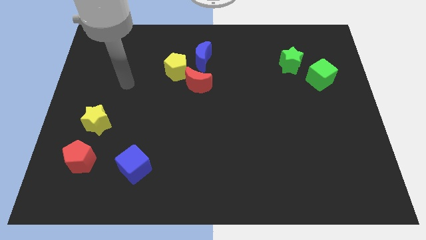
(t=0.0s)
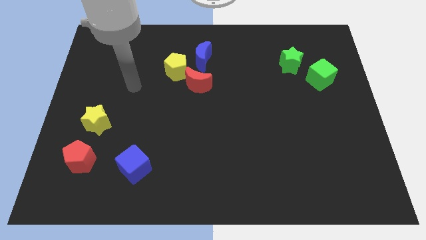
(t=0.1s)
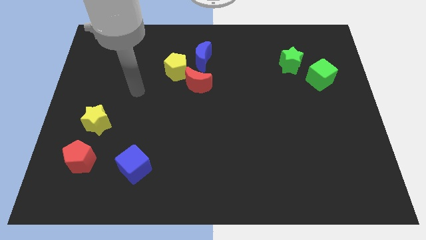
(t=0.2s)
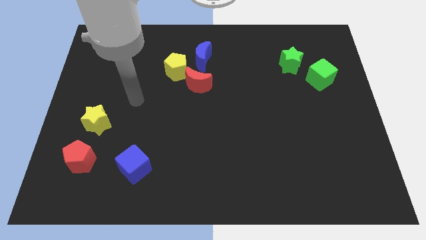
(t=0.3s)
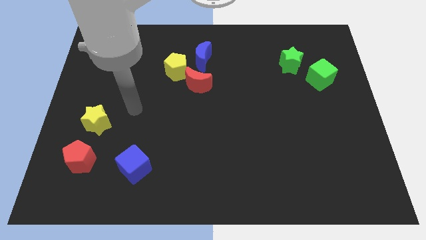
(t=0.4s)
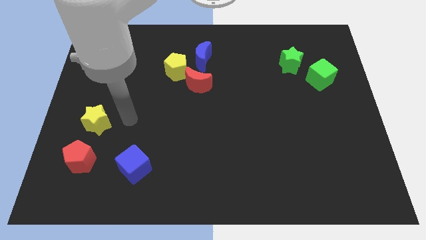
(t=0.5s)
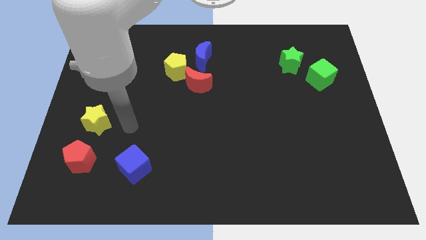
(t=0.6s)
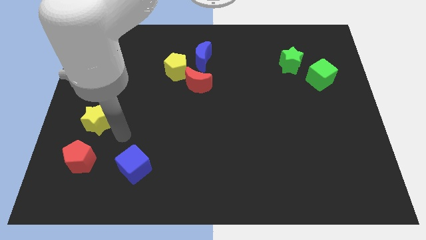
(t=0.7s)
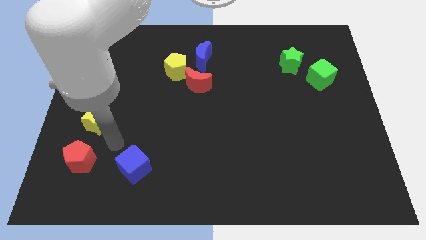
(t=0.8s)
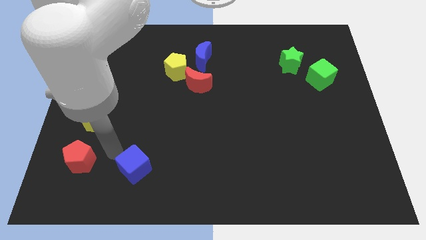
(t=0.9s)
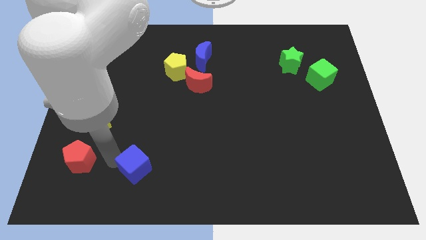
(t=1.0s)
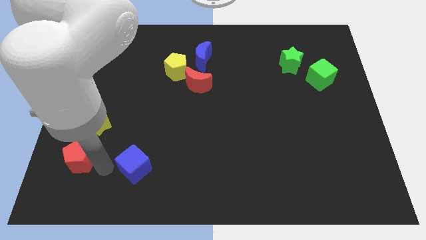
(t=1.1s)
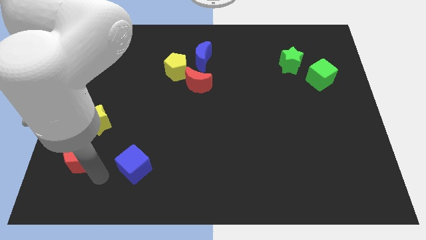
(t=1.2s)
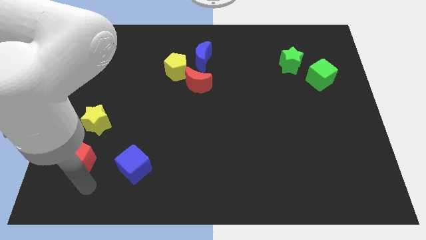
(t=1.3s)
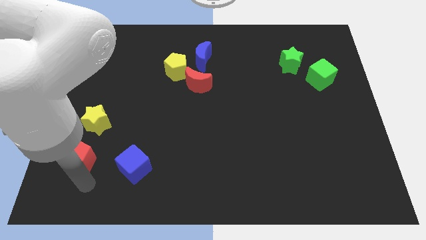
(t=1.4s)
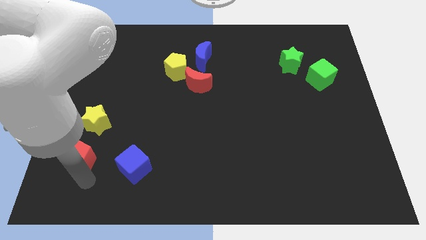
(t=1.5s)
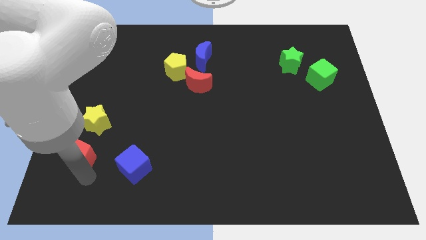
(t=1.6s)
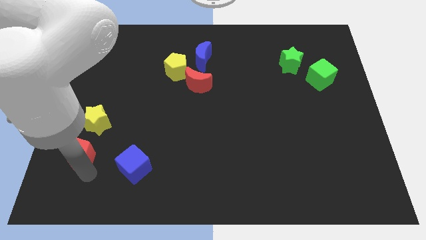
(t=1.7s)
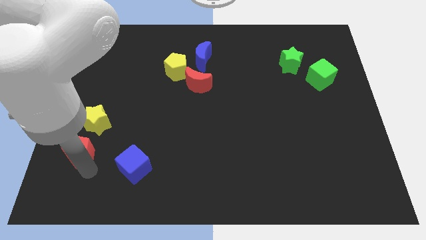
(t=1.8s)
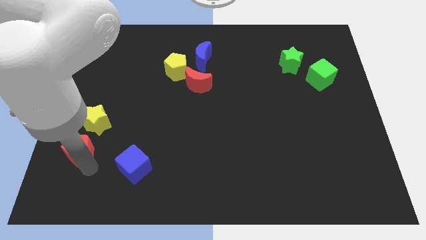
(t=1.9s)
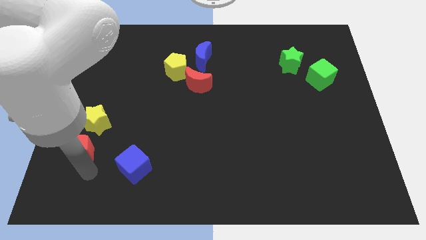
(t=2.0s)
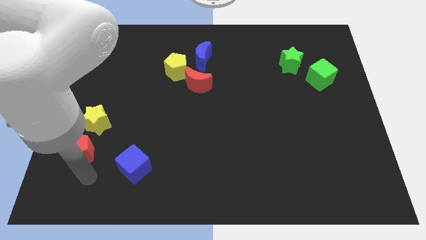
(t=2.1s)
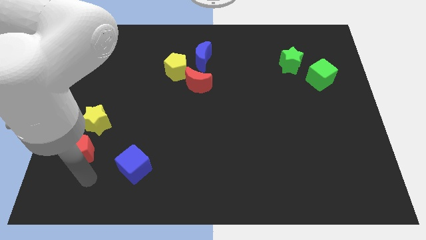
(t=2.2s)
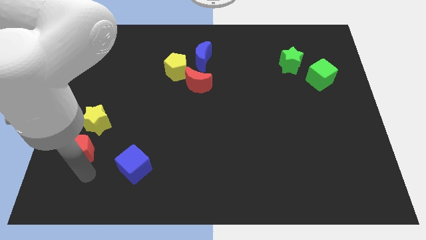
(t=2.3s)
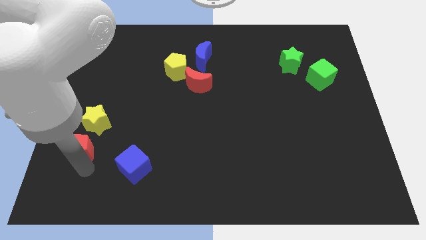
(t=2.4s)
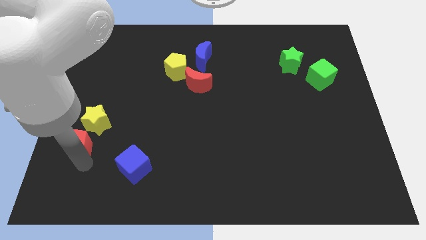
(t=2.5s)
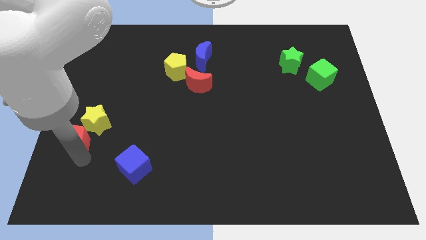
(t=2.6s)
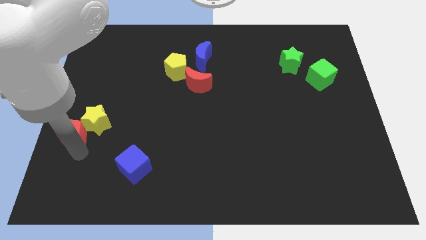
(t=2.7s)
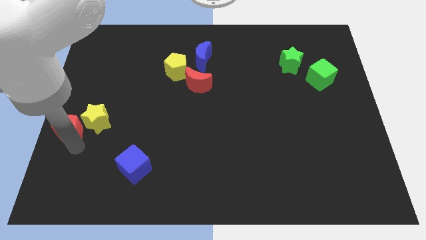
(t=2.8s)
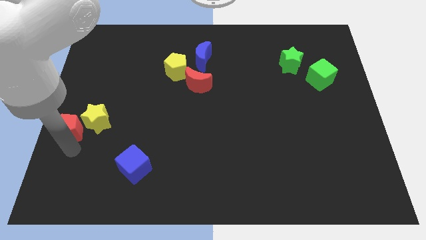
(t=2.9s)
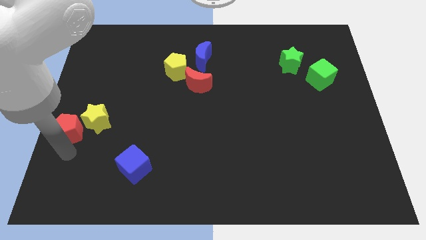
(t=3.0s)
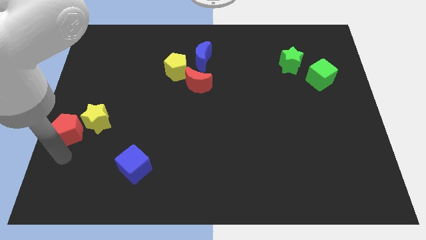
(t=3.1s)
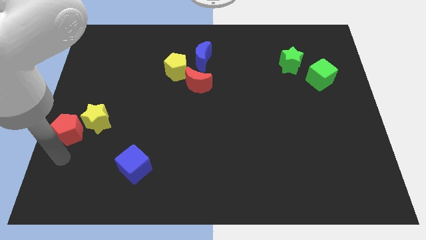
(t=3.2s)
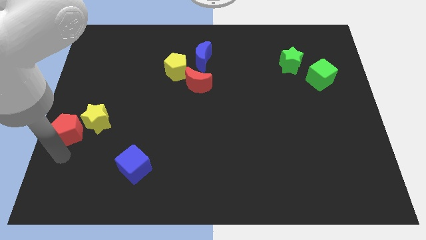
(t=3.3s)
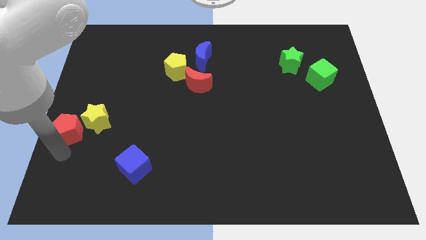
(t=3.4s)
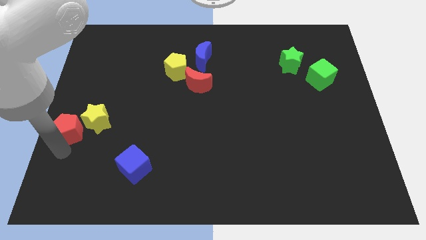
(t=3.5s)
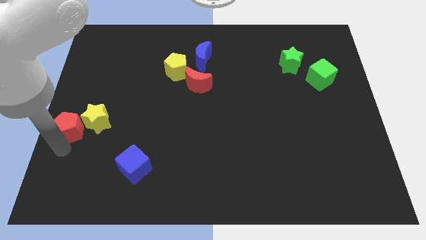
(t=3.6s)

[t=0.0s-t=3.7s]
move the red pentagon up a little bit

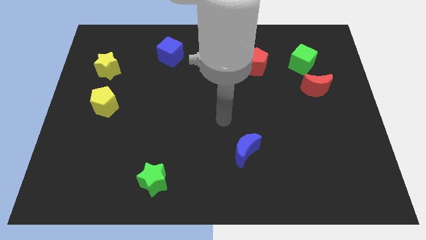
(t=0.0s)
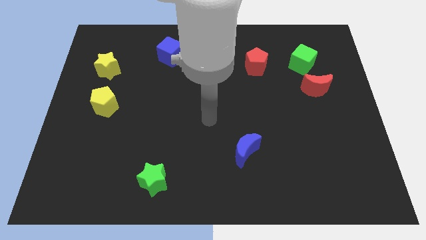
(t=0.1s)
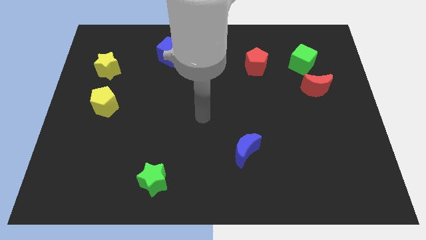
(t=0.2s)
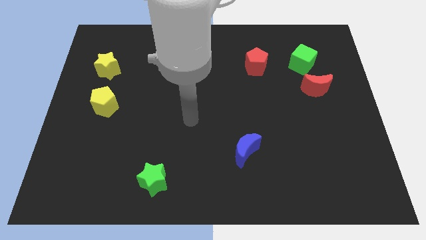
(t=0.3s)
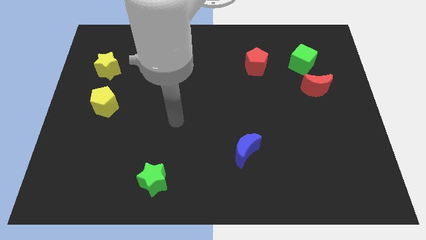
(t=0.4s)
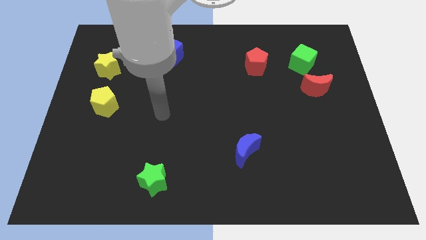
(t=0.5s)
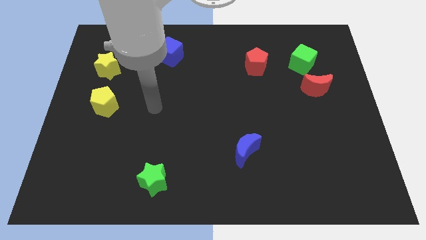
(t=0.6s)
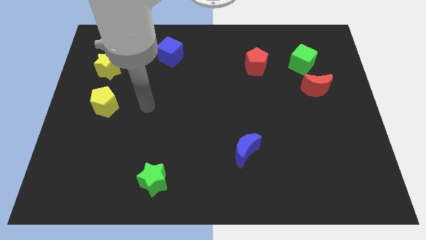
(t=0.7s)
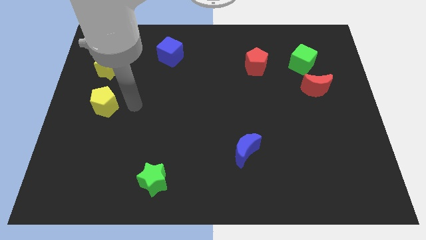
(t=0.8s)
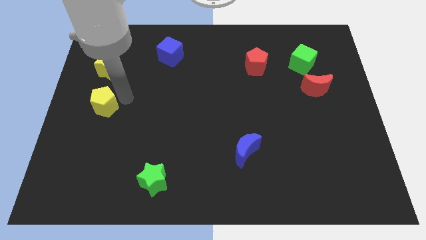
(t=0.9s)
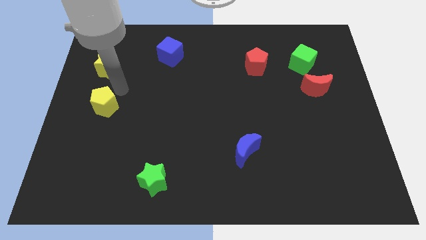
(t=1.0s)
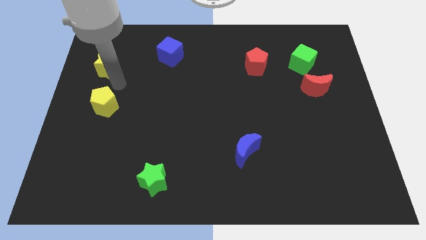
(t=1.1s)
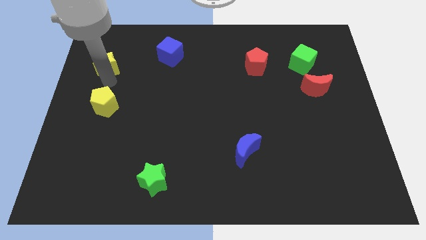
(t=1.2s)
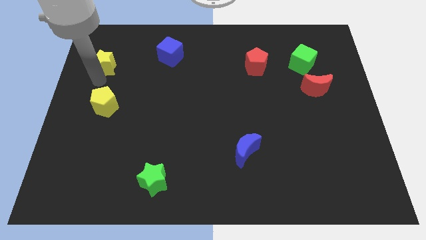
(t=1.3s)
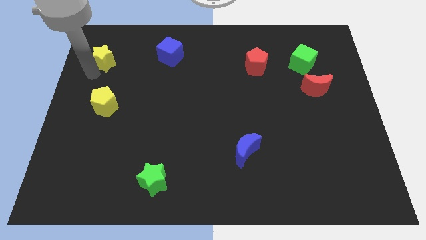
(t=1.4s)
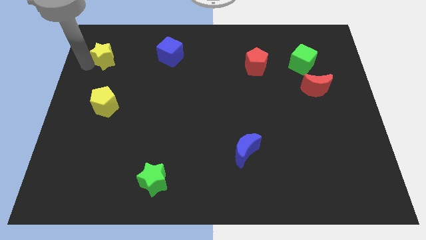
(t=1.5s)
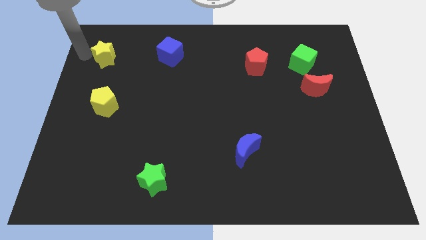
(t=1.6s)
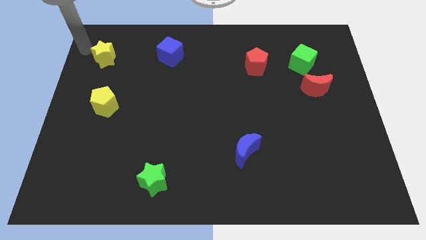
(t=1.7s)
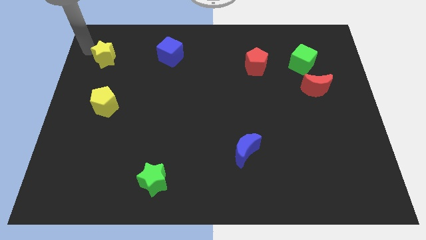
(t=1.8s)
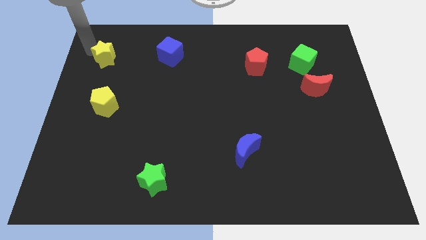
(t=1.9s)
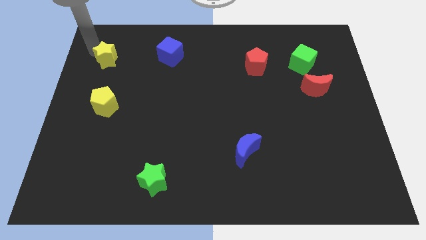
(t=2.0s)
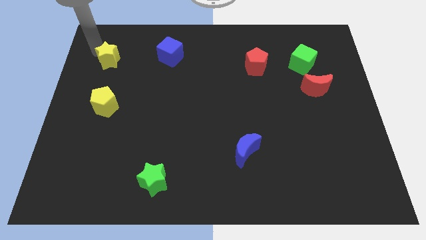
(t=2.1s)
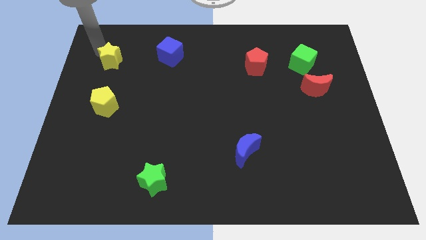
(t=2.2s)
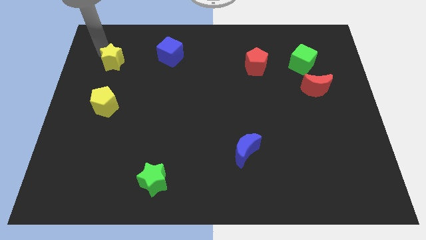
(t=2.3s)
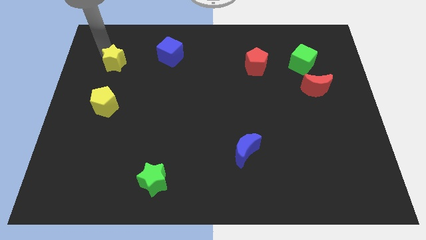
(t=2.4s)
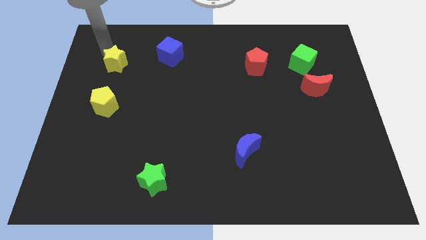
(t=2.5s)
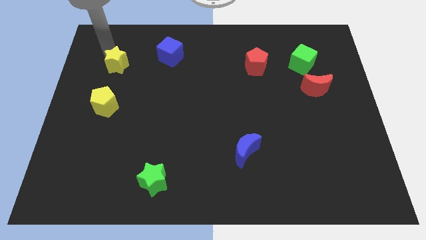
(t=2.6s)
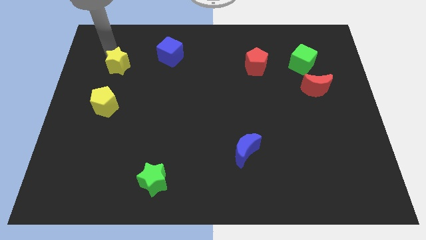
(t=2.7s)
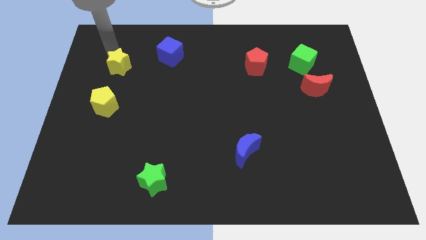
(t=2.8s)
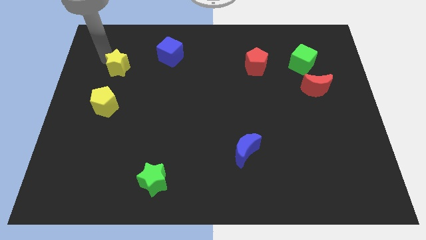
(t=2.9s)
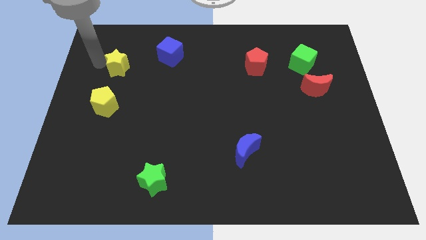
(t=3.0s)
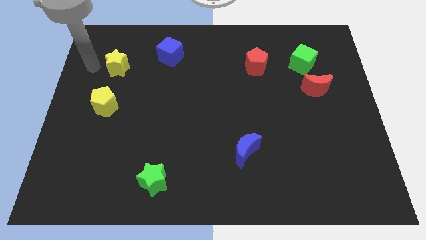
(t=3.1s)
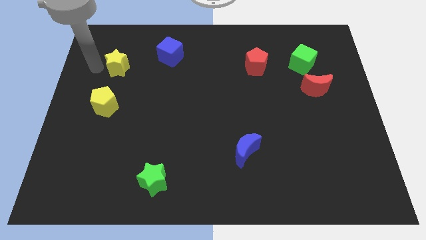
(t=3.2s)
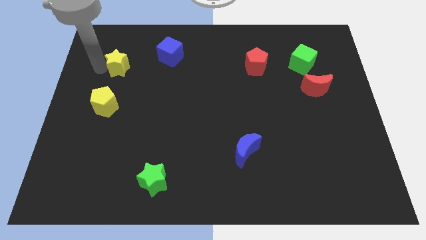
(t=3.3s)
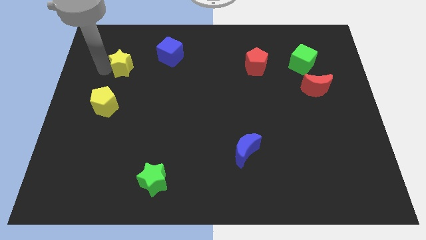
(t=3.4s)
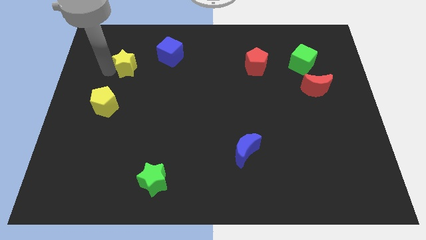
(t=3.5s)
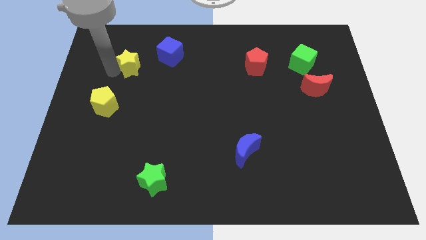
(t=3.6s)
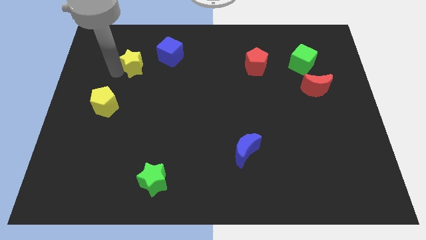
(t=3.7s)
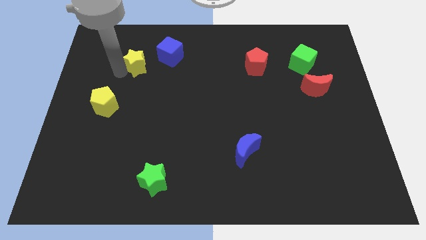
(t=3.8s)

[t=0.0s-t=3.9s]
slightly move the yellow star right

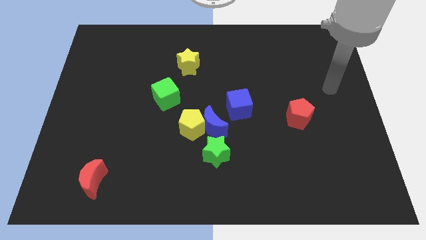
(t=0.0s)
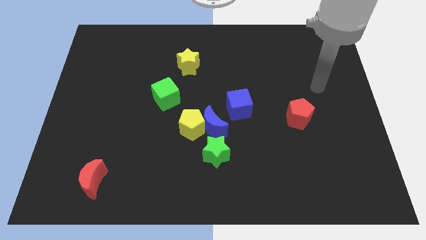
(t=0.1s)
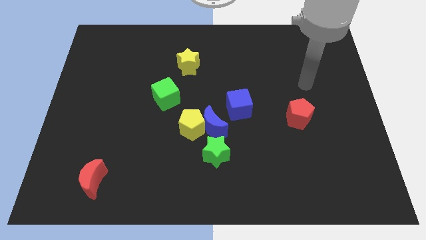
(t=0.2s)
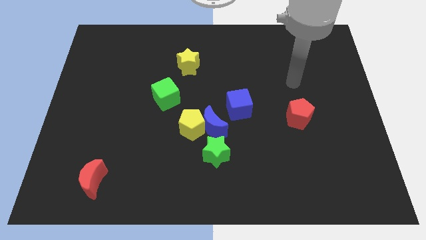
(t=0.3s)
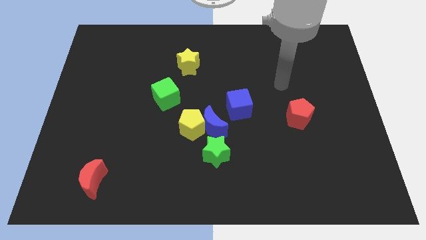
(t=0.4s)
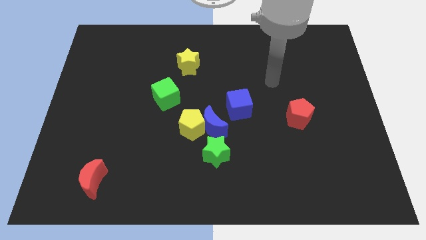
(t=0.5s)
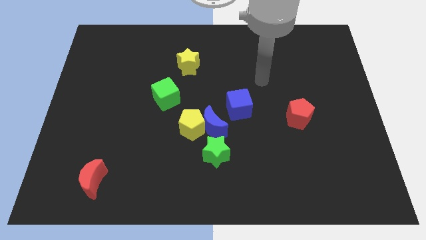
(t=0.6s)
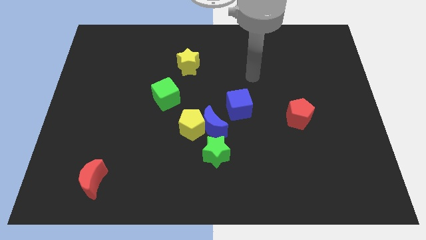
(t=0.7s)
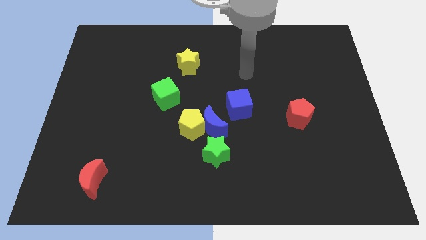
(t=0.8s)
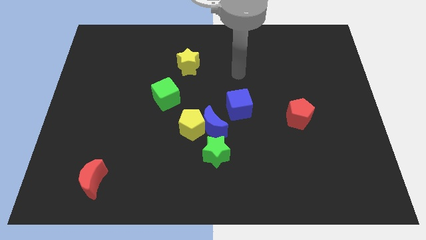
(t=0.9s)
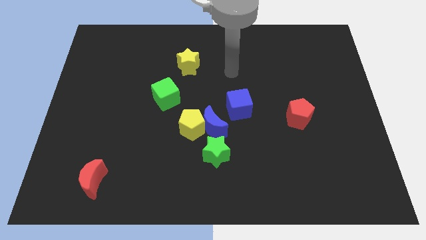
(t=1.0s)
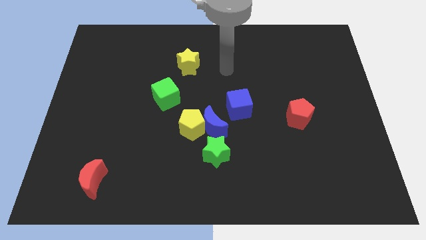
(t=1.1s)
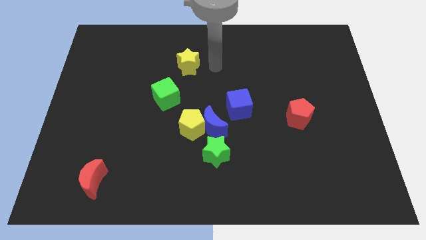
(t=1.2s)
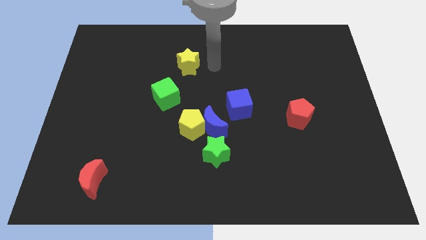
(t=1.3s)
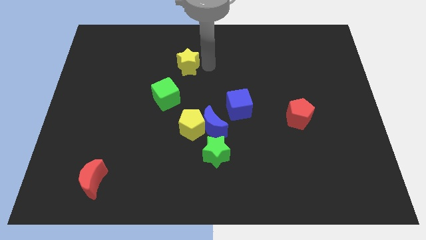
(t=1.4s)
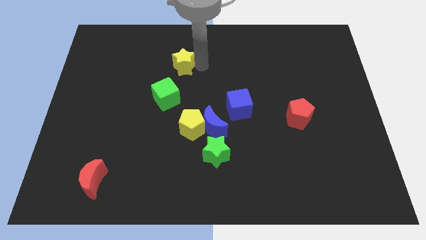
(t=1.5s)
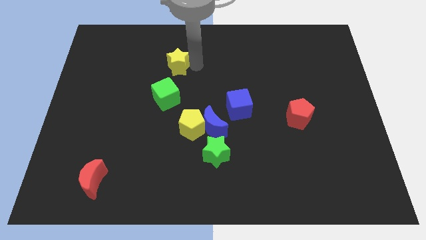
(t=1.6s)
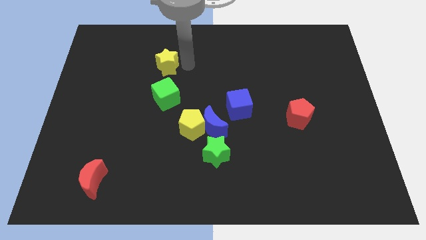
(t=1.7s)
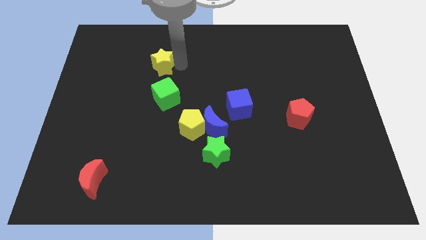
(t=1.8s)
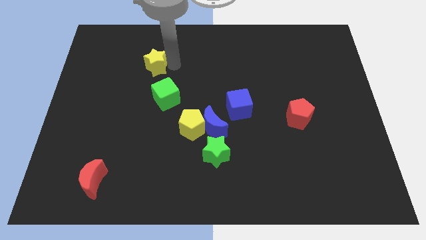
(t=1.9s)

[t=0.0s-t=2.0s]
slightly slide the yellow star to the left
